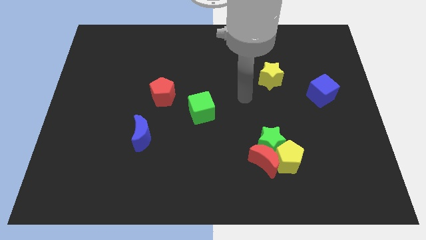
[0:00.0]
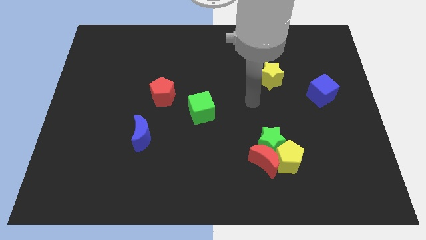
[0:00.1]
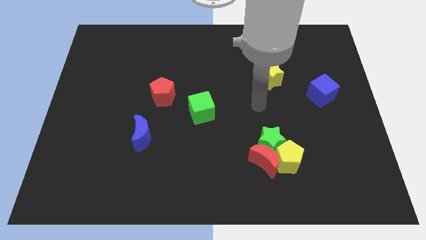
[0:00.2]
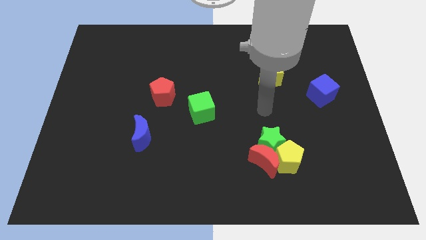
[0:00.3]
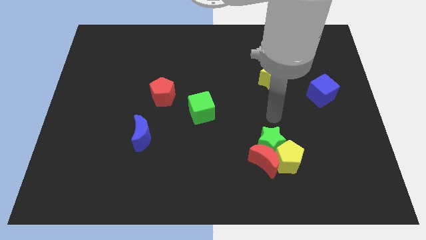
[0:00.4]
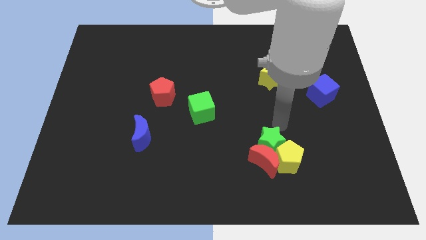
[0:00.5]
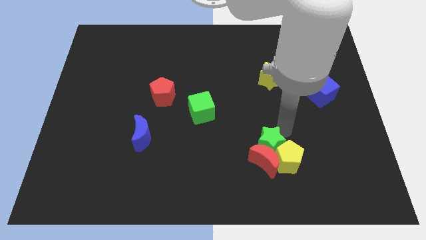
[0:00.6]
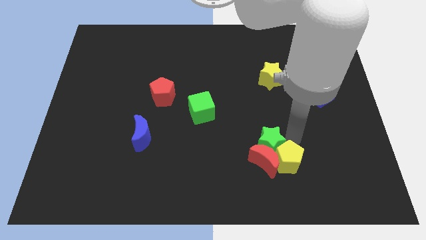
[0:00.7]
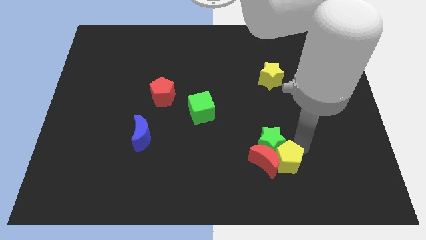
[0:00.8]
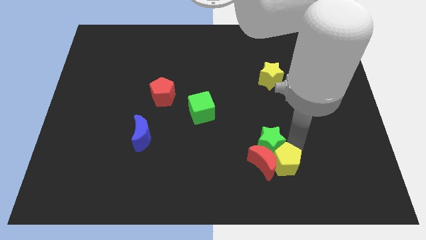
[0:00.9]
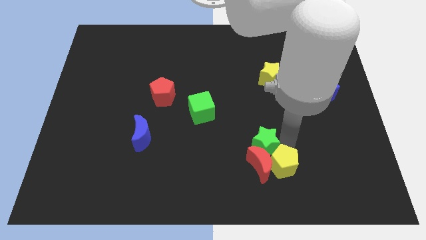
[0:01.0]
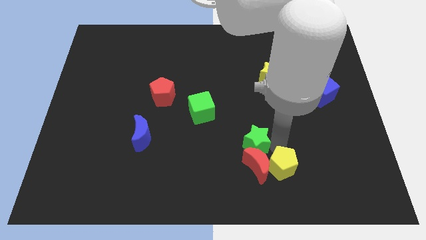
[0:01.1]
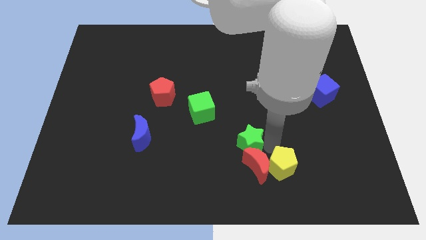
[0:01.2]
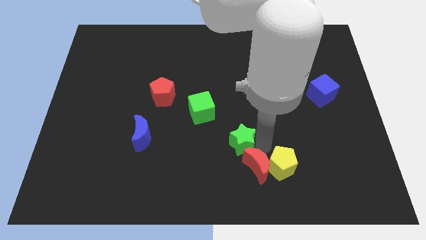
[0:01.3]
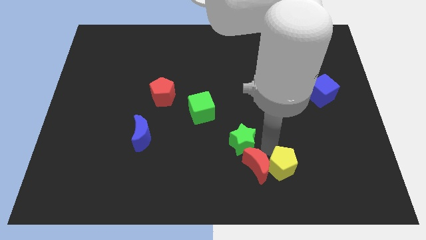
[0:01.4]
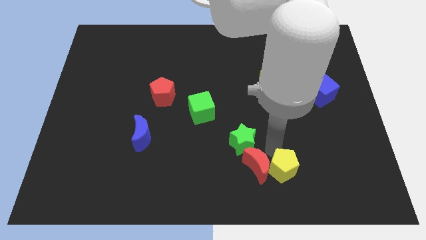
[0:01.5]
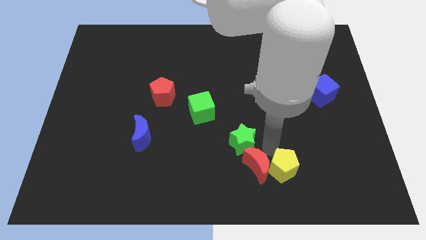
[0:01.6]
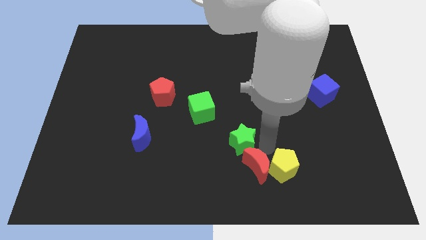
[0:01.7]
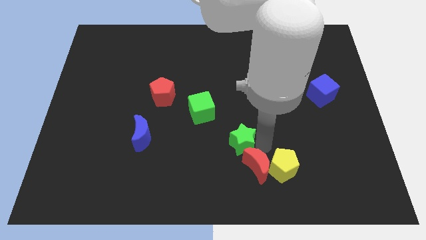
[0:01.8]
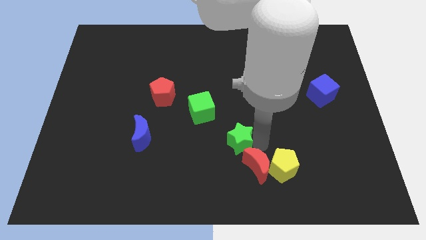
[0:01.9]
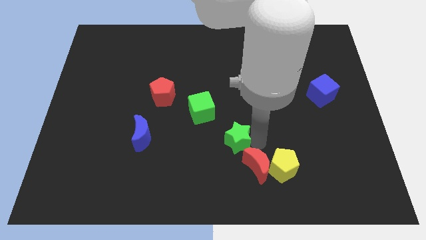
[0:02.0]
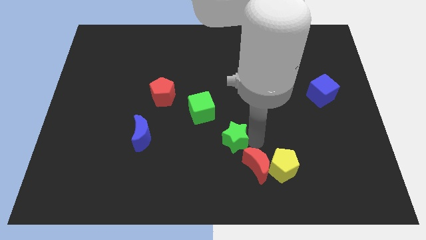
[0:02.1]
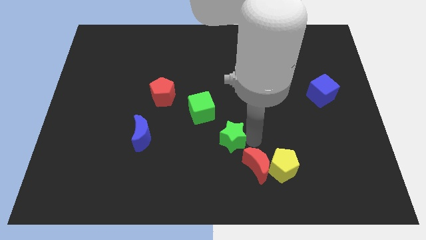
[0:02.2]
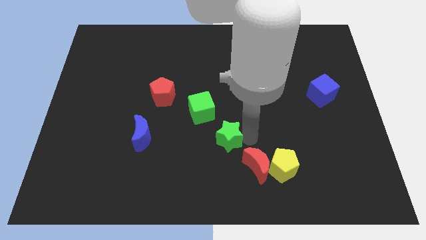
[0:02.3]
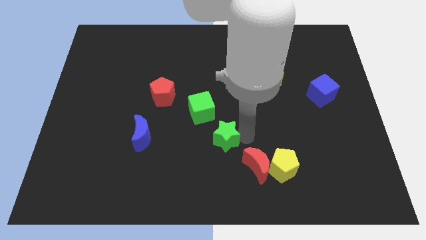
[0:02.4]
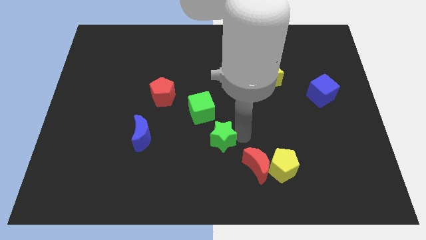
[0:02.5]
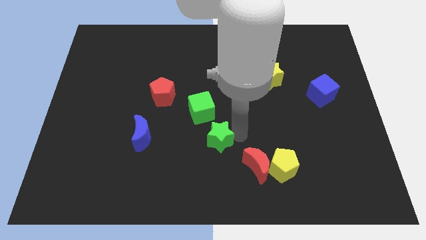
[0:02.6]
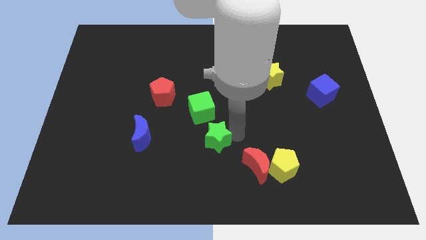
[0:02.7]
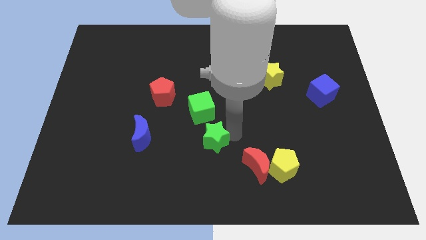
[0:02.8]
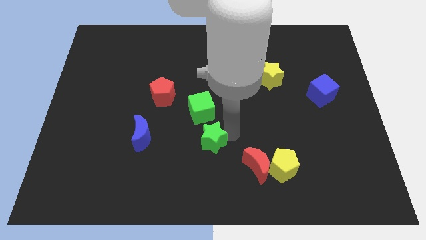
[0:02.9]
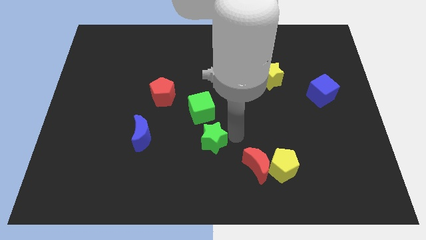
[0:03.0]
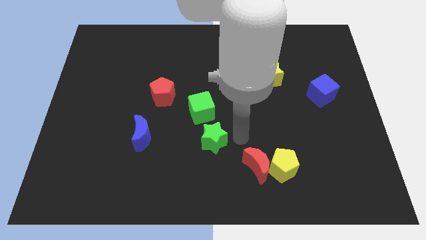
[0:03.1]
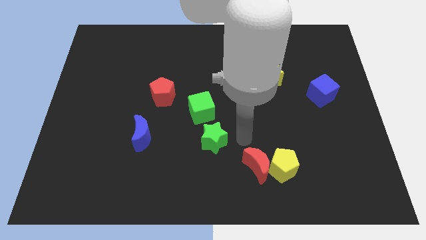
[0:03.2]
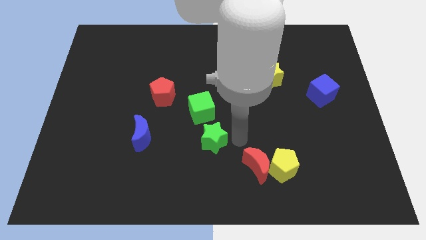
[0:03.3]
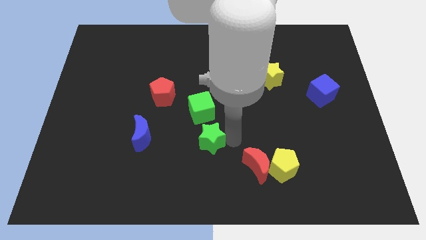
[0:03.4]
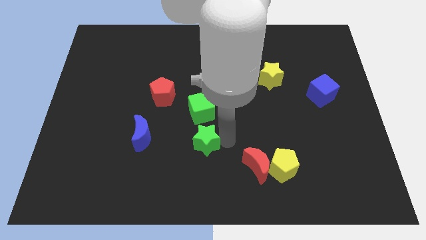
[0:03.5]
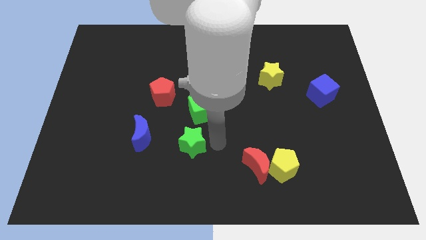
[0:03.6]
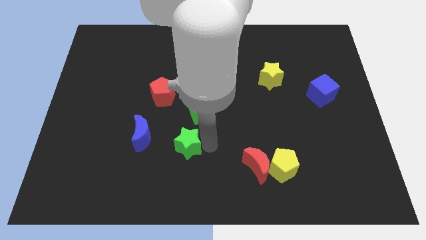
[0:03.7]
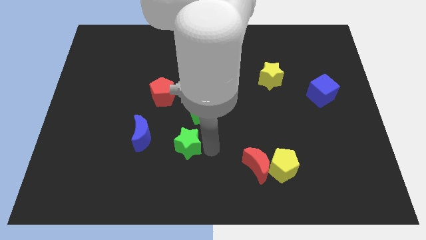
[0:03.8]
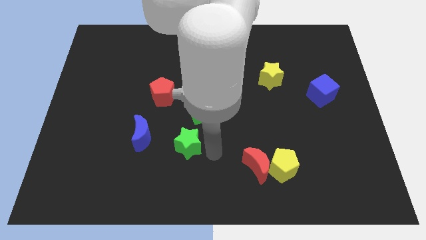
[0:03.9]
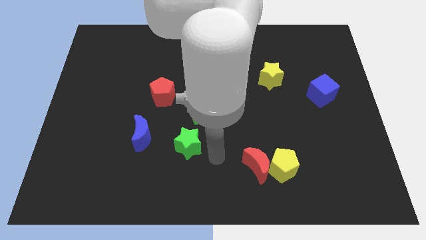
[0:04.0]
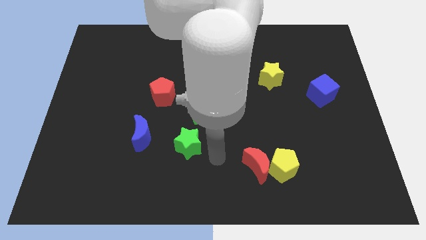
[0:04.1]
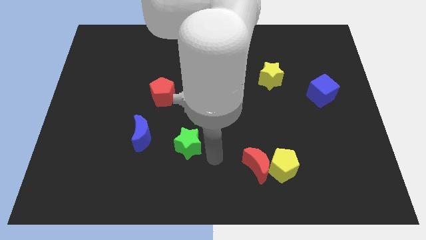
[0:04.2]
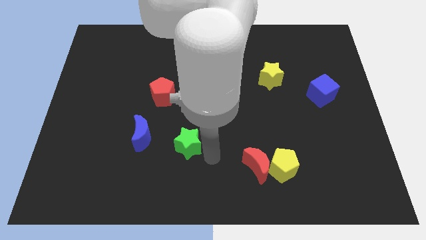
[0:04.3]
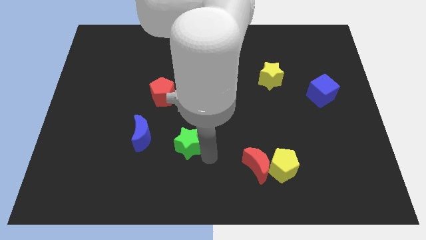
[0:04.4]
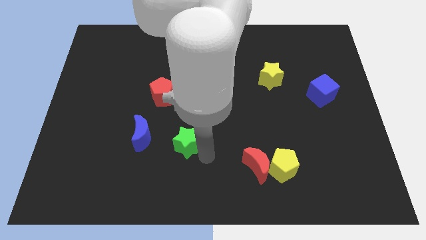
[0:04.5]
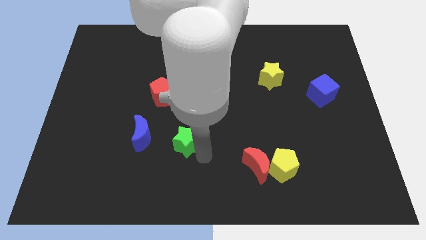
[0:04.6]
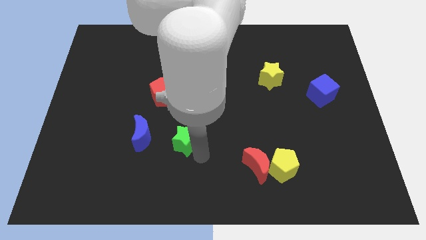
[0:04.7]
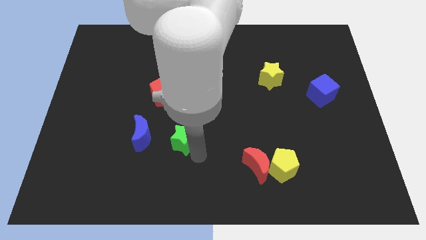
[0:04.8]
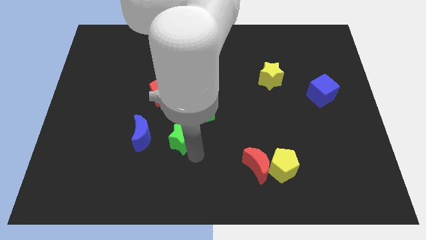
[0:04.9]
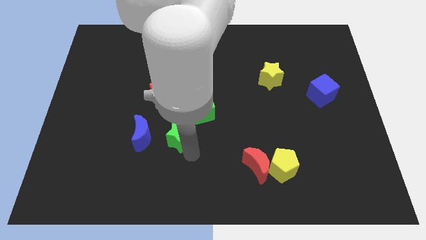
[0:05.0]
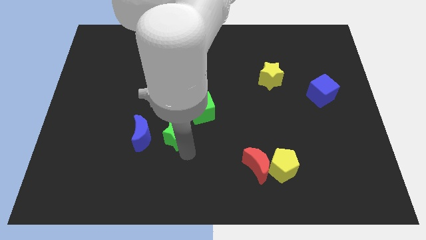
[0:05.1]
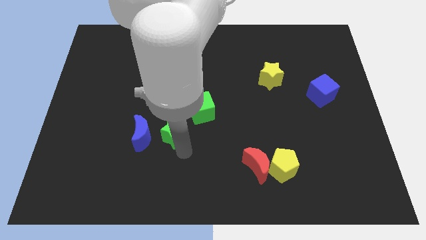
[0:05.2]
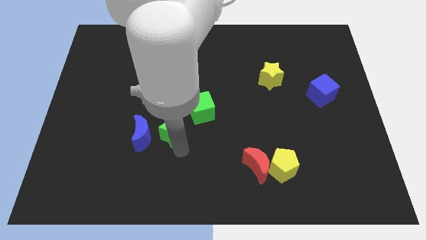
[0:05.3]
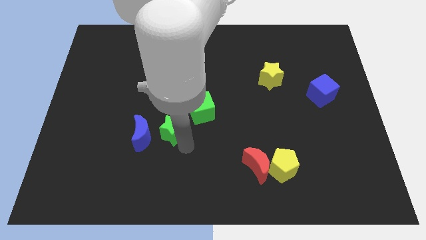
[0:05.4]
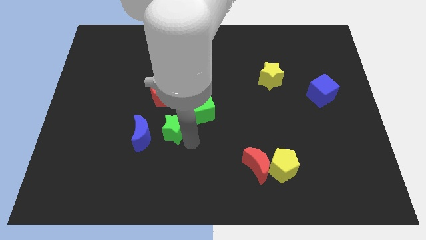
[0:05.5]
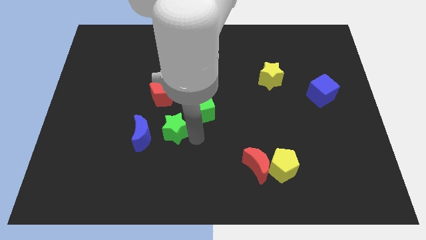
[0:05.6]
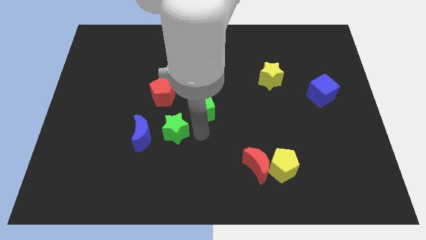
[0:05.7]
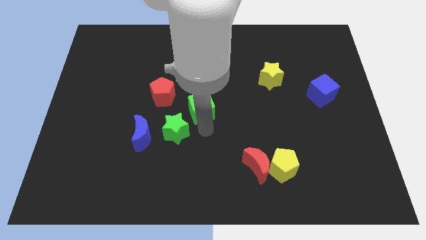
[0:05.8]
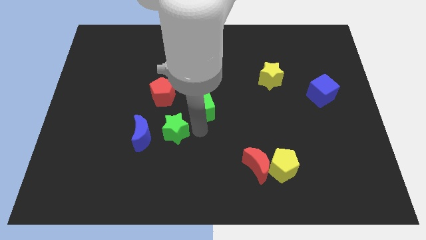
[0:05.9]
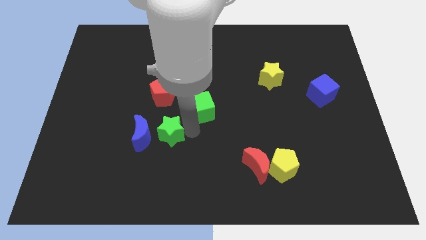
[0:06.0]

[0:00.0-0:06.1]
slide the green star next to the blue moon
